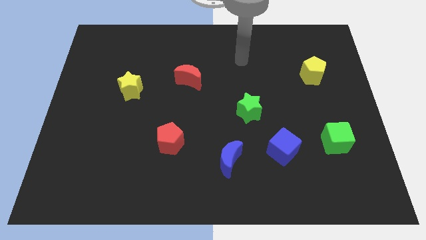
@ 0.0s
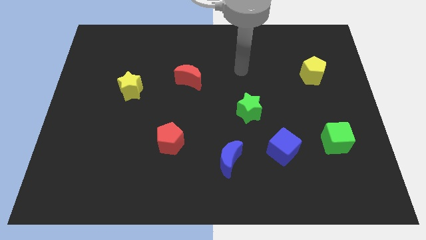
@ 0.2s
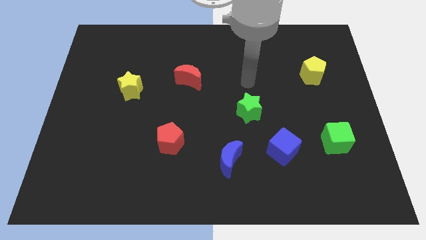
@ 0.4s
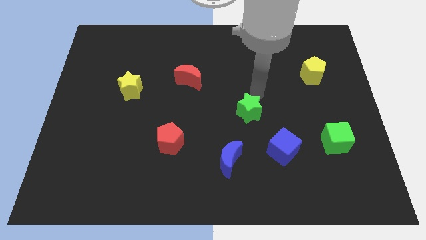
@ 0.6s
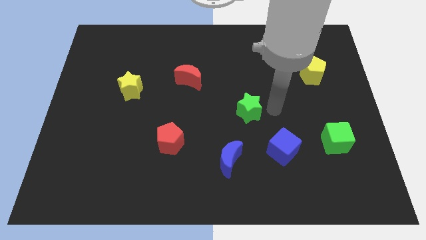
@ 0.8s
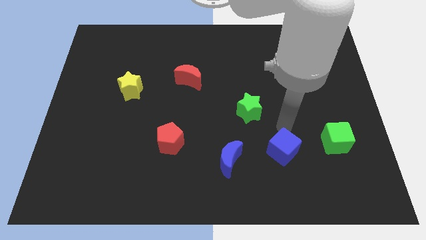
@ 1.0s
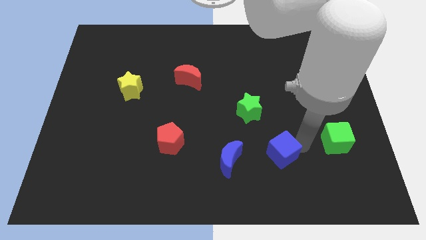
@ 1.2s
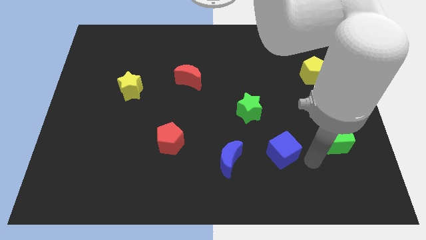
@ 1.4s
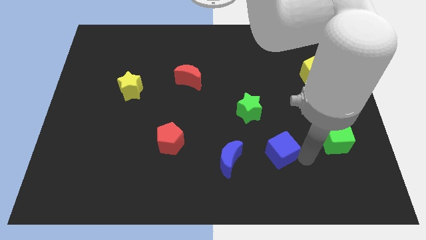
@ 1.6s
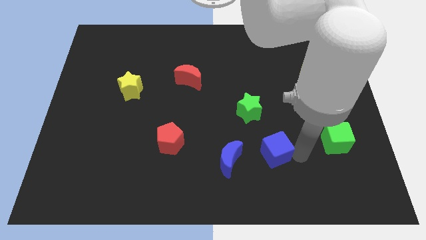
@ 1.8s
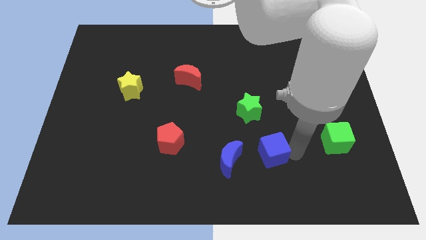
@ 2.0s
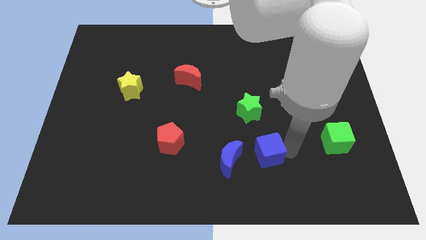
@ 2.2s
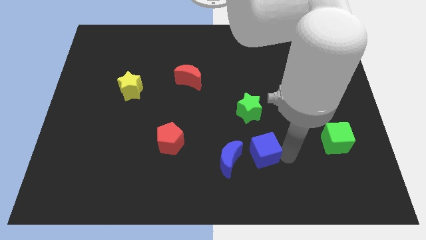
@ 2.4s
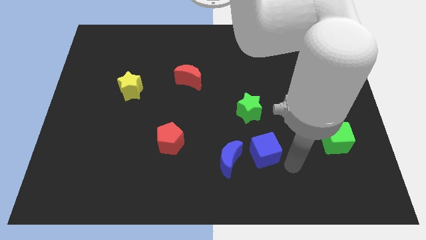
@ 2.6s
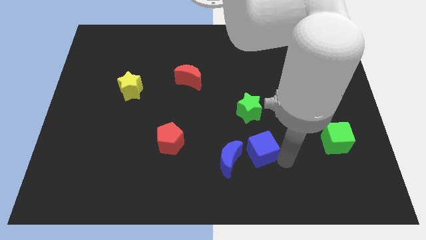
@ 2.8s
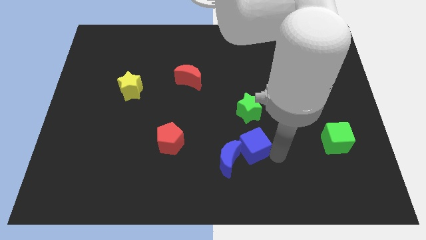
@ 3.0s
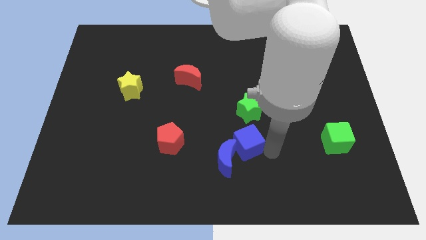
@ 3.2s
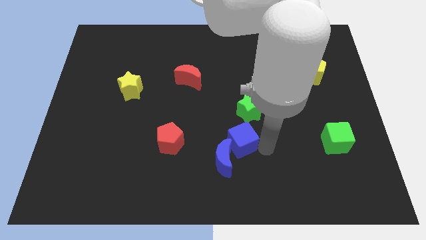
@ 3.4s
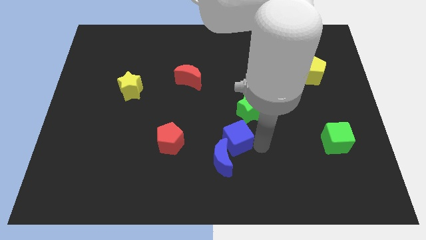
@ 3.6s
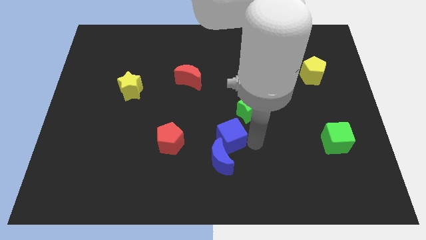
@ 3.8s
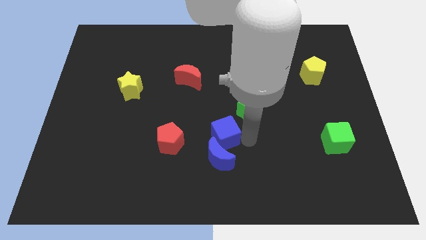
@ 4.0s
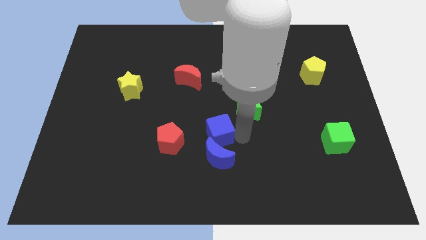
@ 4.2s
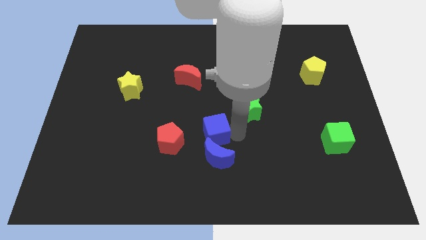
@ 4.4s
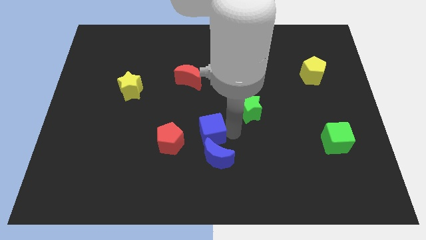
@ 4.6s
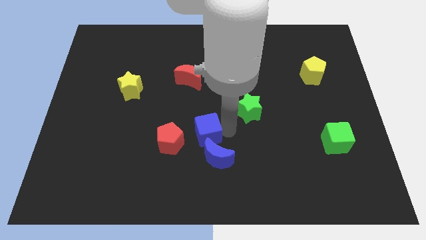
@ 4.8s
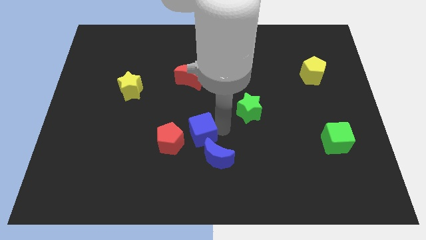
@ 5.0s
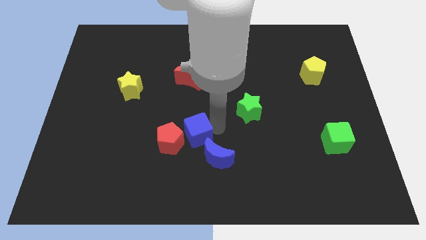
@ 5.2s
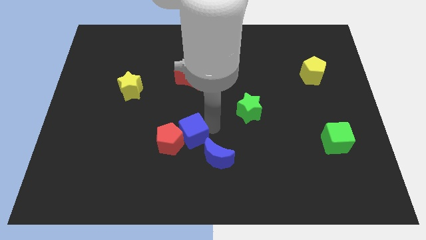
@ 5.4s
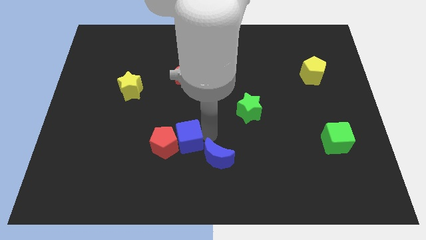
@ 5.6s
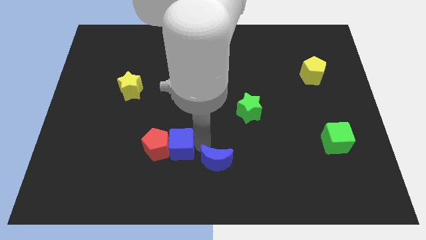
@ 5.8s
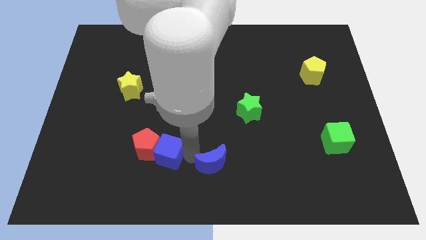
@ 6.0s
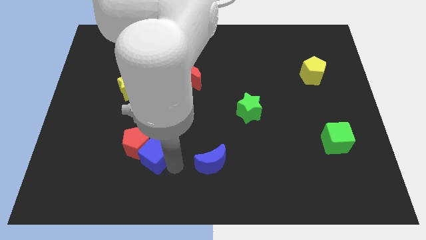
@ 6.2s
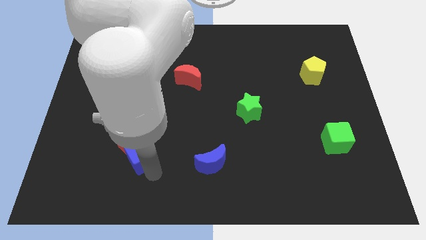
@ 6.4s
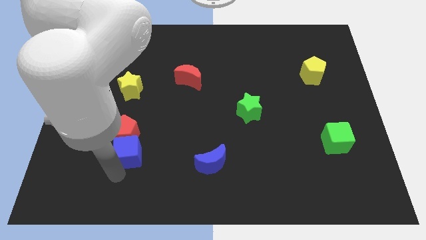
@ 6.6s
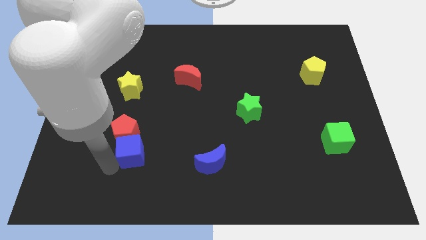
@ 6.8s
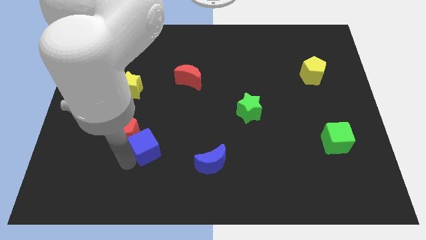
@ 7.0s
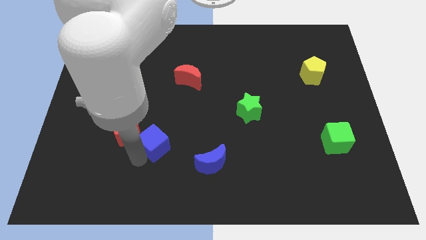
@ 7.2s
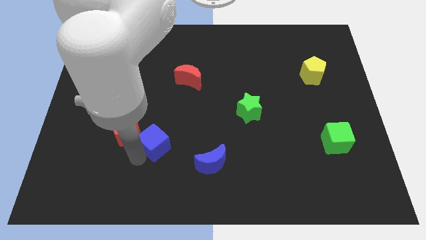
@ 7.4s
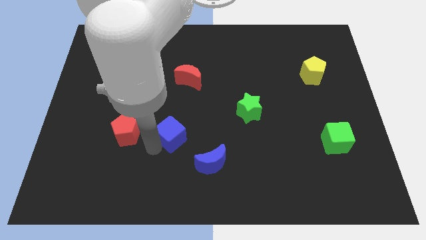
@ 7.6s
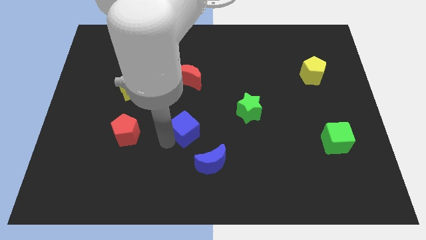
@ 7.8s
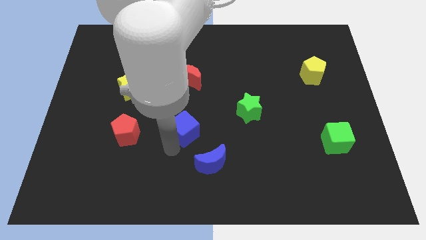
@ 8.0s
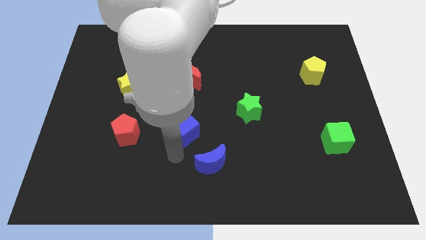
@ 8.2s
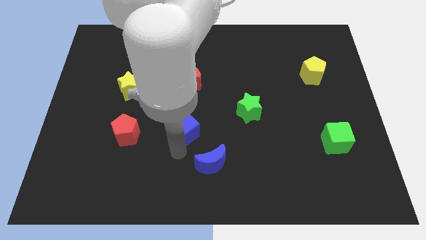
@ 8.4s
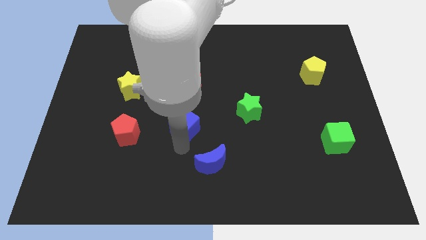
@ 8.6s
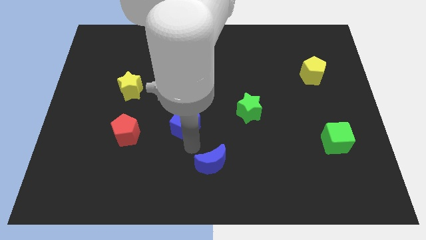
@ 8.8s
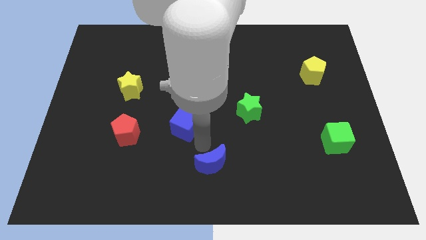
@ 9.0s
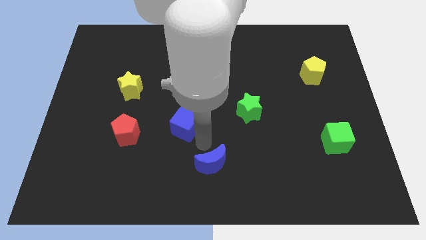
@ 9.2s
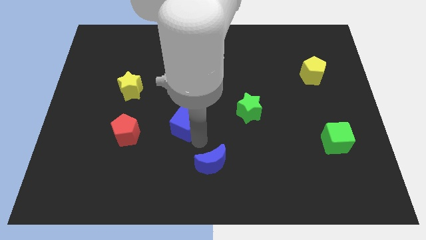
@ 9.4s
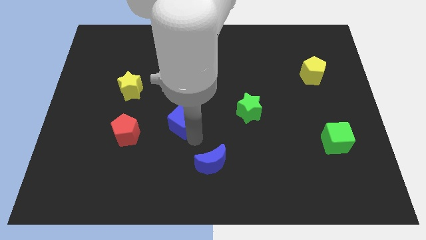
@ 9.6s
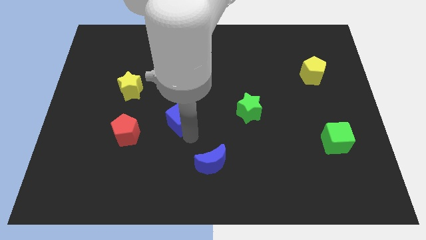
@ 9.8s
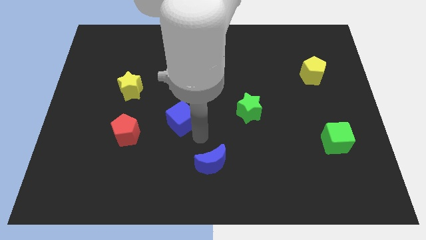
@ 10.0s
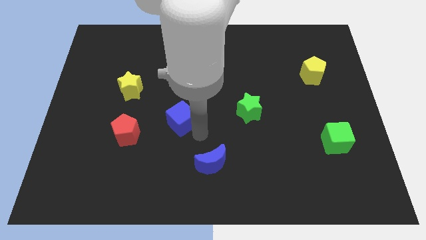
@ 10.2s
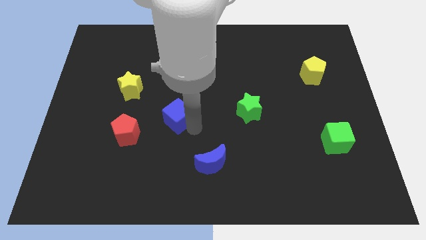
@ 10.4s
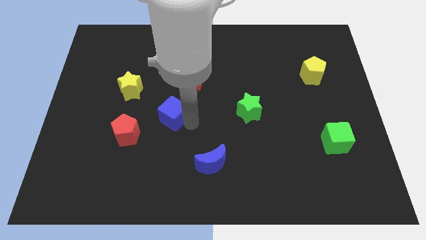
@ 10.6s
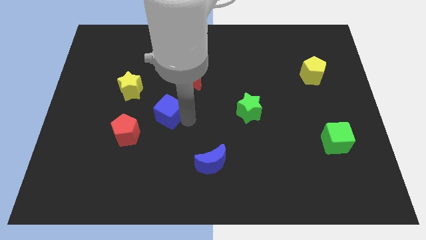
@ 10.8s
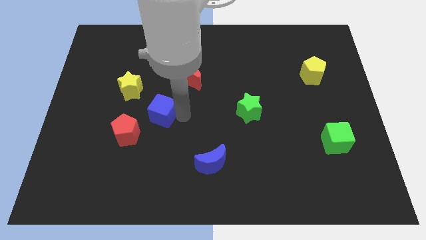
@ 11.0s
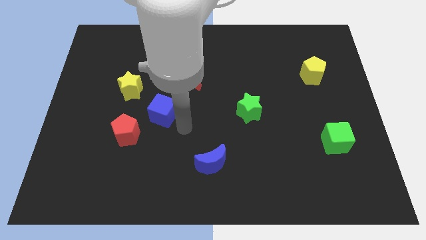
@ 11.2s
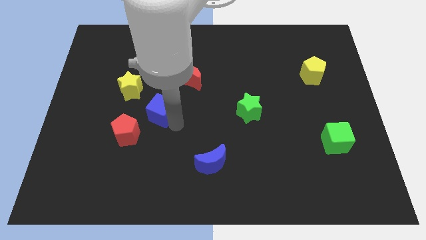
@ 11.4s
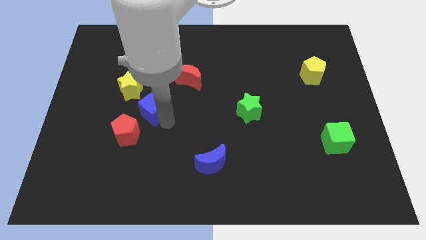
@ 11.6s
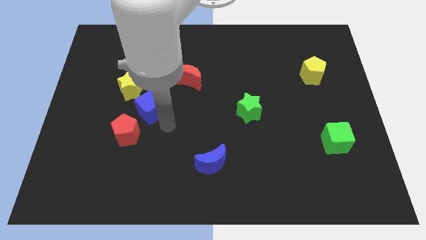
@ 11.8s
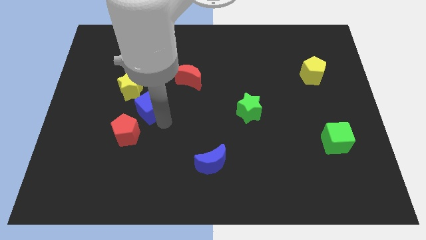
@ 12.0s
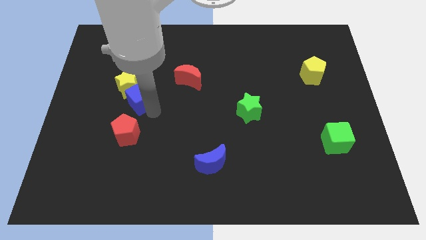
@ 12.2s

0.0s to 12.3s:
slide the blue cube close to the yellow star

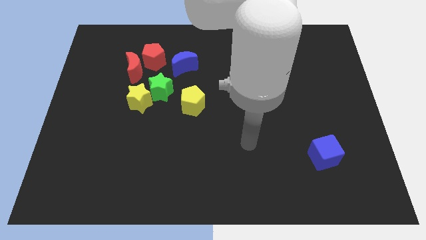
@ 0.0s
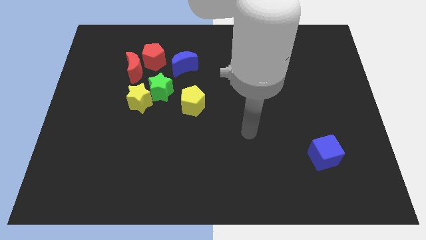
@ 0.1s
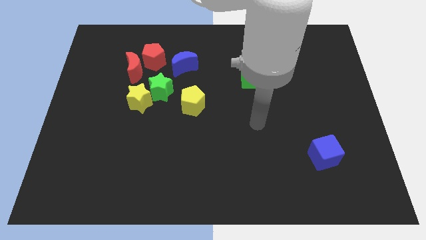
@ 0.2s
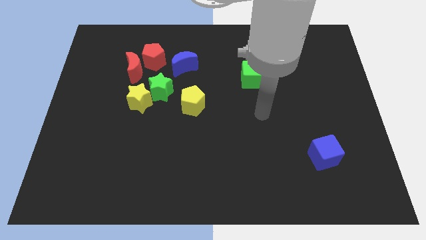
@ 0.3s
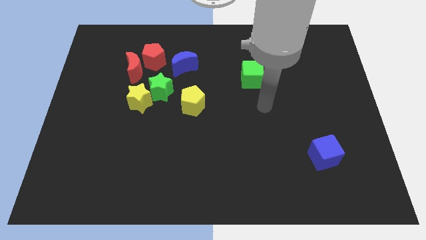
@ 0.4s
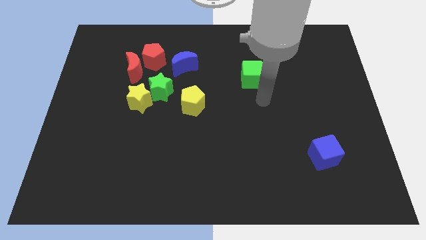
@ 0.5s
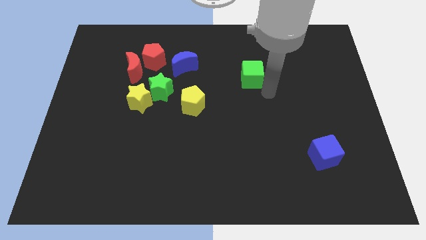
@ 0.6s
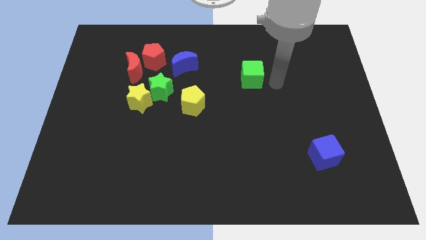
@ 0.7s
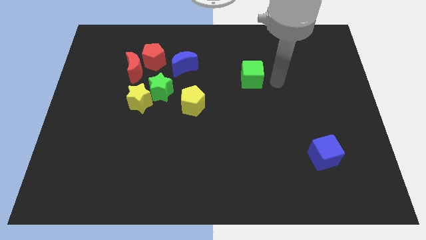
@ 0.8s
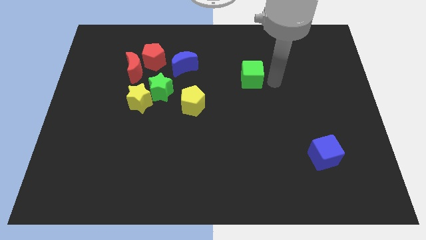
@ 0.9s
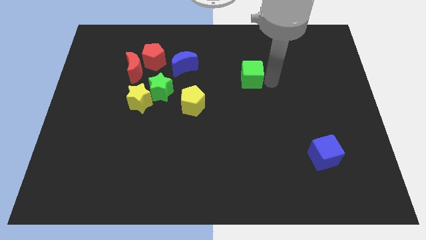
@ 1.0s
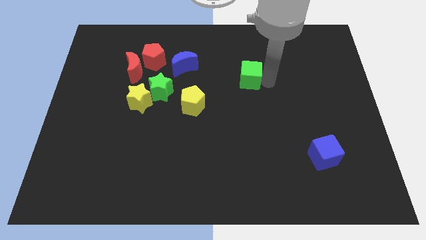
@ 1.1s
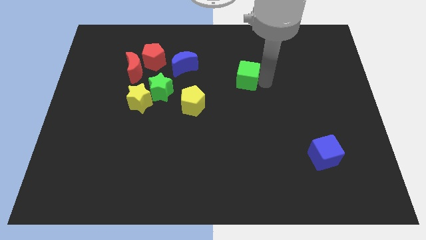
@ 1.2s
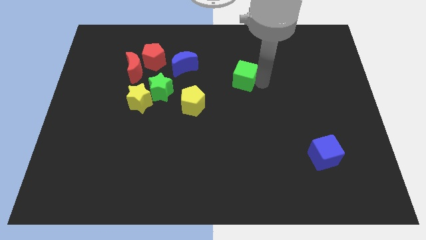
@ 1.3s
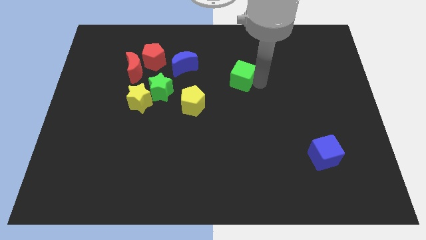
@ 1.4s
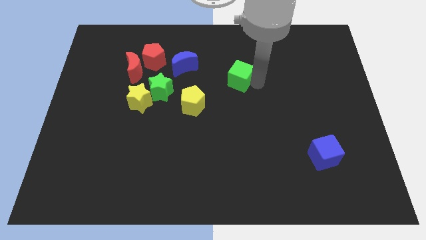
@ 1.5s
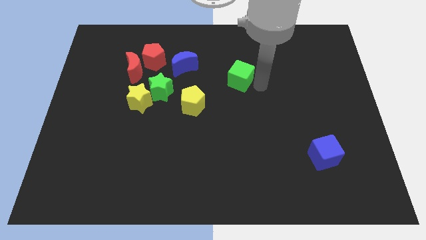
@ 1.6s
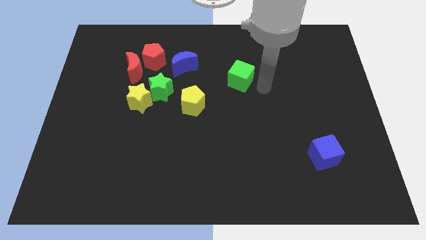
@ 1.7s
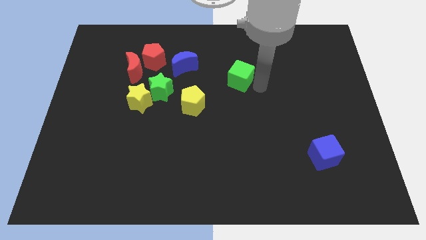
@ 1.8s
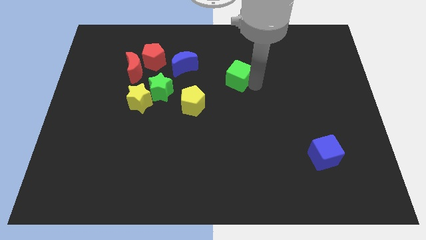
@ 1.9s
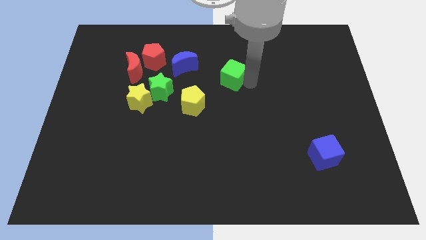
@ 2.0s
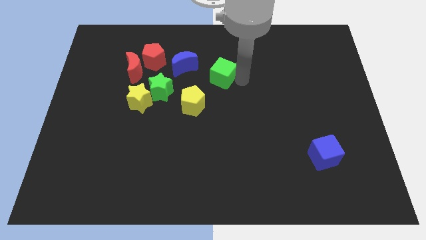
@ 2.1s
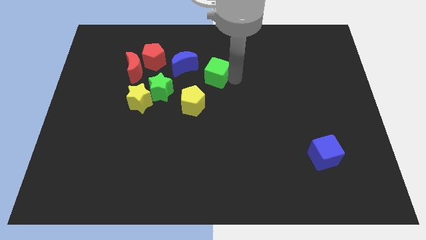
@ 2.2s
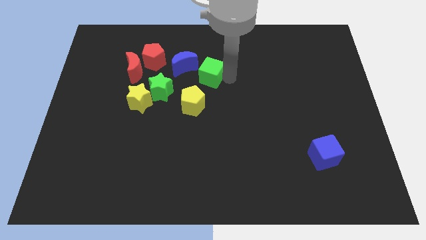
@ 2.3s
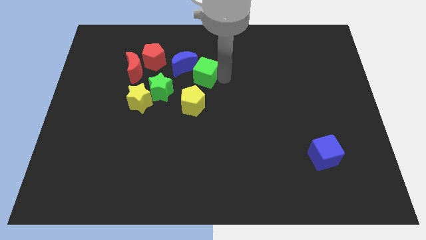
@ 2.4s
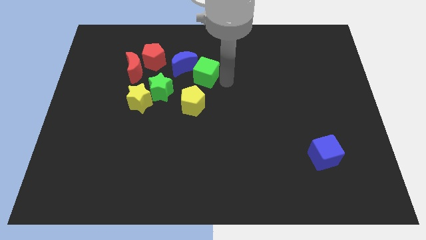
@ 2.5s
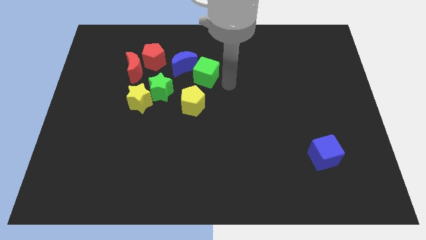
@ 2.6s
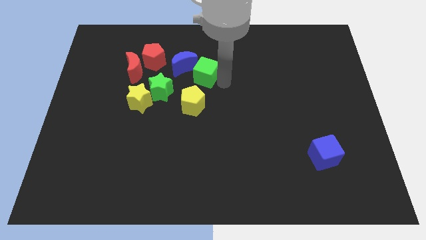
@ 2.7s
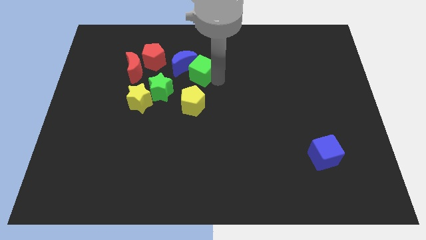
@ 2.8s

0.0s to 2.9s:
put the green cube to the blue moon
